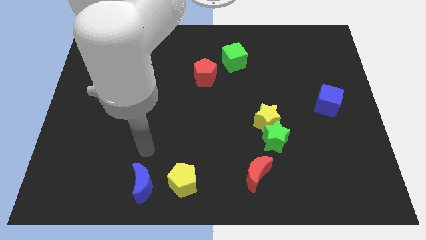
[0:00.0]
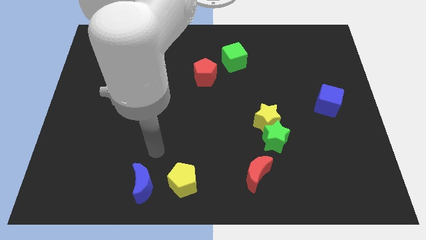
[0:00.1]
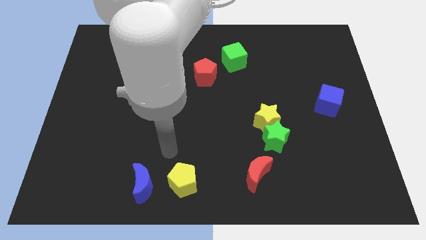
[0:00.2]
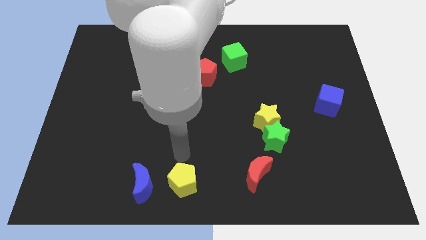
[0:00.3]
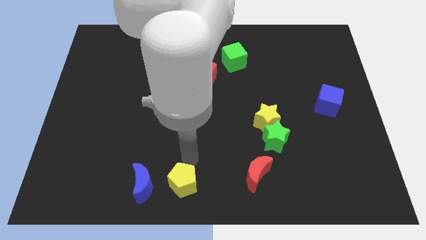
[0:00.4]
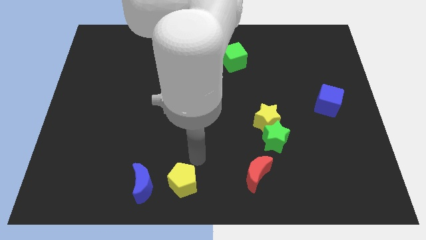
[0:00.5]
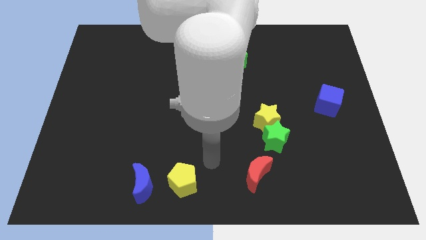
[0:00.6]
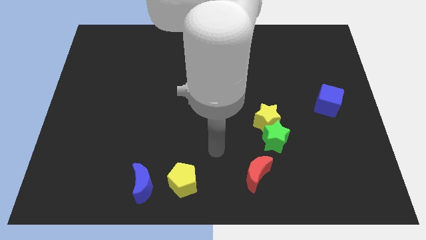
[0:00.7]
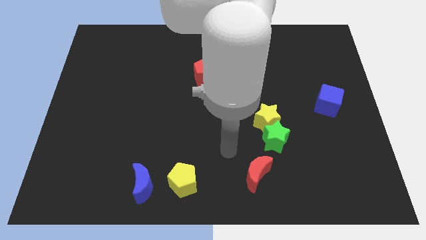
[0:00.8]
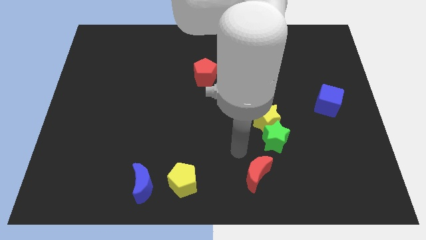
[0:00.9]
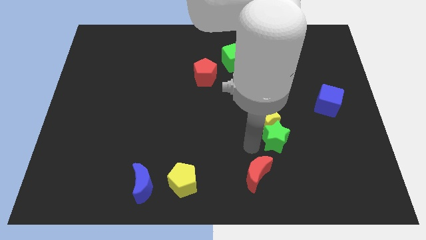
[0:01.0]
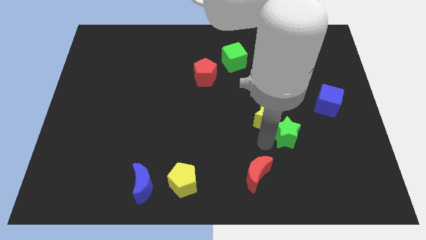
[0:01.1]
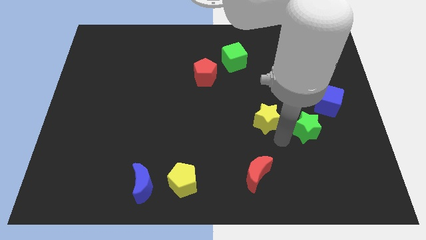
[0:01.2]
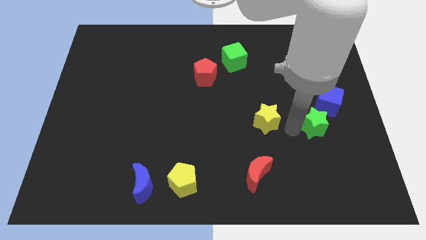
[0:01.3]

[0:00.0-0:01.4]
separate the yellow star from the green star

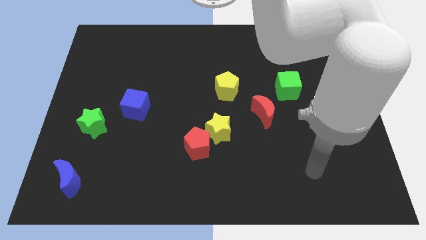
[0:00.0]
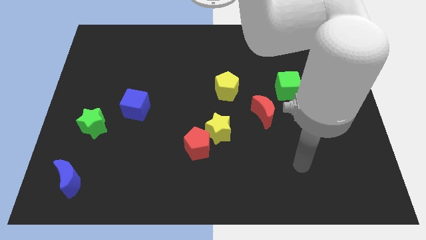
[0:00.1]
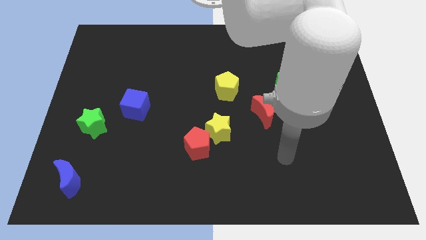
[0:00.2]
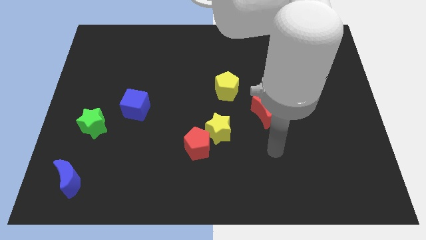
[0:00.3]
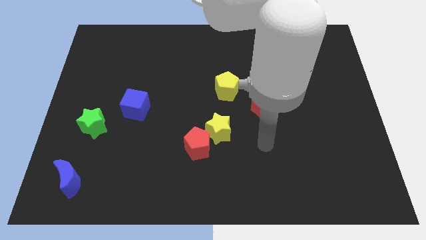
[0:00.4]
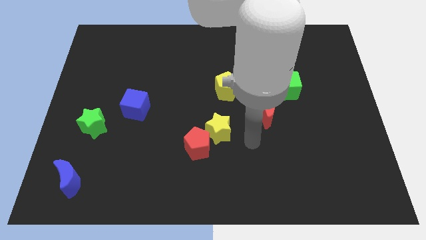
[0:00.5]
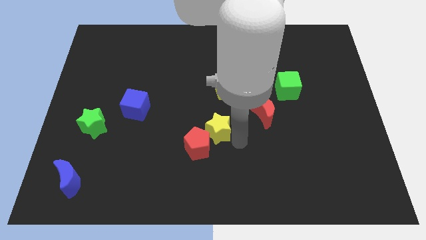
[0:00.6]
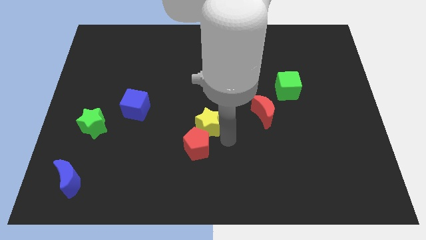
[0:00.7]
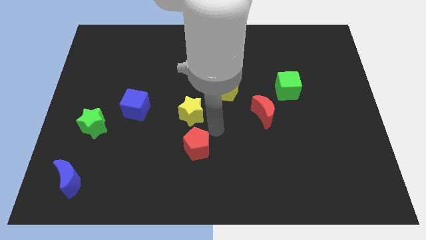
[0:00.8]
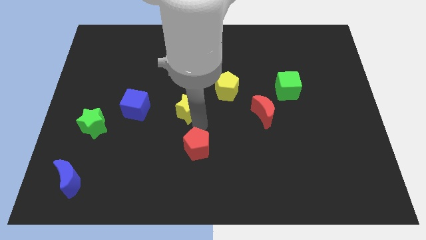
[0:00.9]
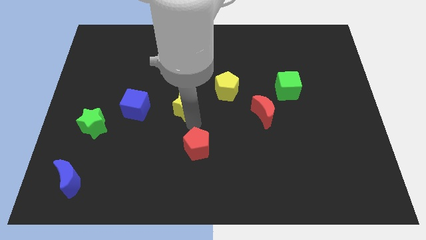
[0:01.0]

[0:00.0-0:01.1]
separate the red pentagon from the yellow star

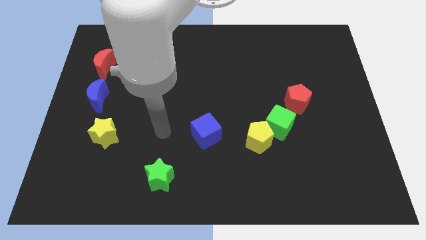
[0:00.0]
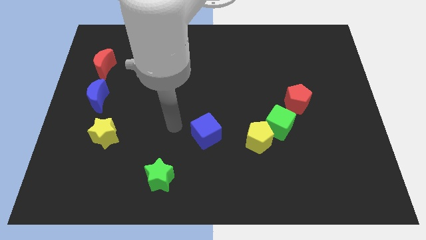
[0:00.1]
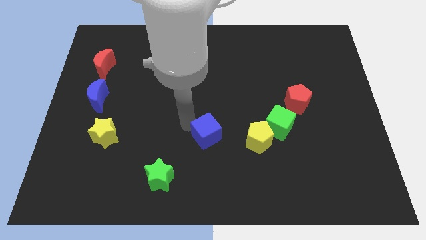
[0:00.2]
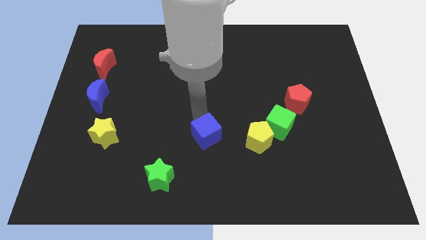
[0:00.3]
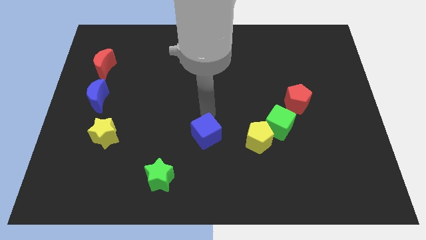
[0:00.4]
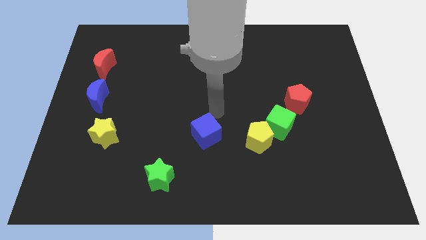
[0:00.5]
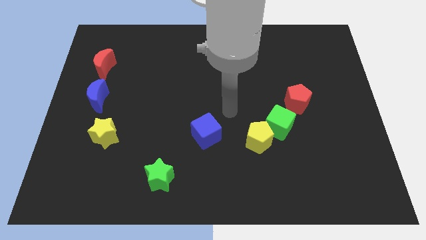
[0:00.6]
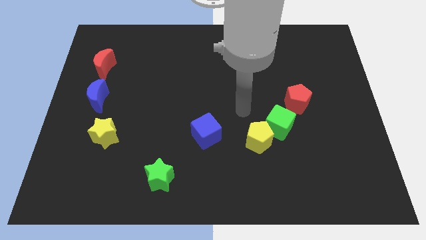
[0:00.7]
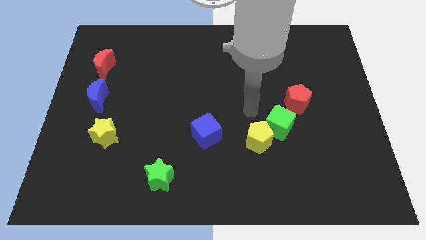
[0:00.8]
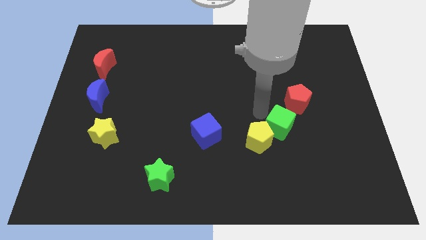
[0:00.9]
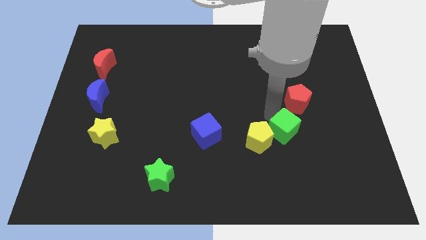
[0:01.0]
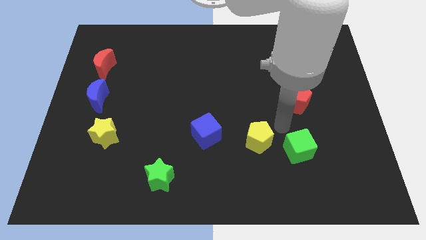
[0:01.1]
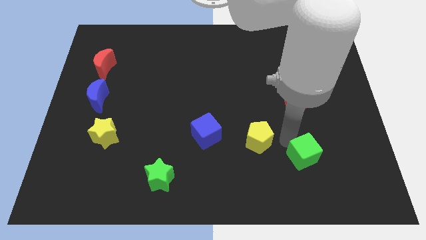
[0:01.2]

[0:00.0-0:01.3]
move the yellow pentagon away from the green cube

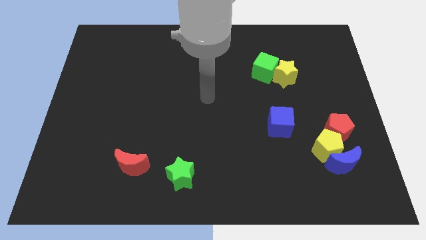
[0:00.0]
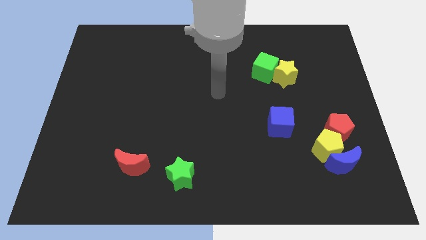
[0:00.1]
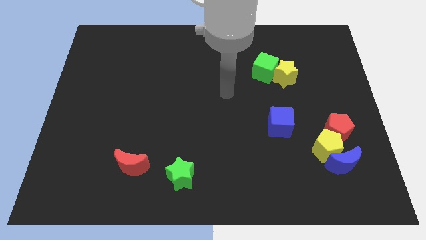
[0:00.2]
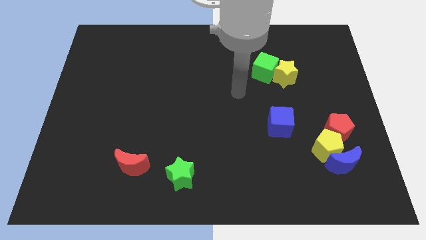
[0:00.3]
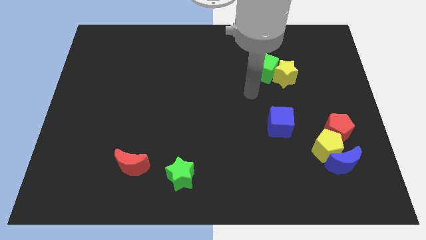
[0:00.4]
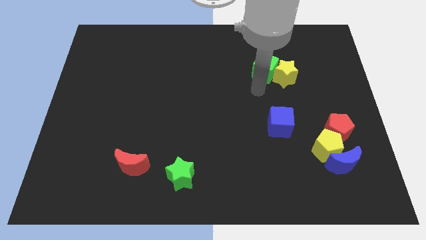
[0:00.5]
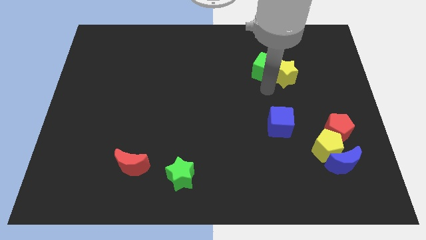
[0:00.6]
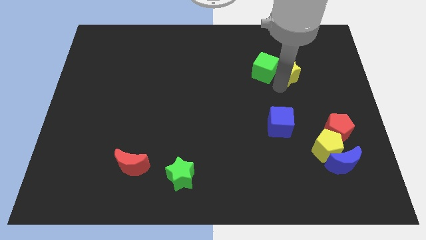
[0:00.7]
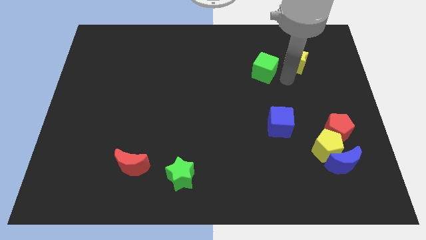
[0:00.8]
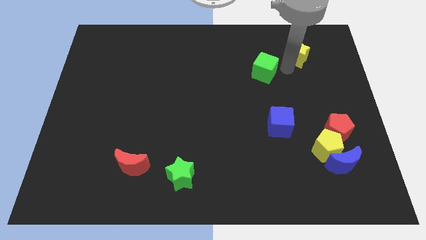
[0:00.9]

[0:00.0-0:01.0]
separate the green cube from the yellow star

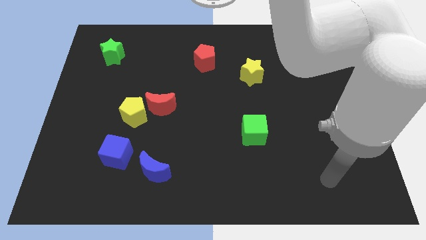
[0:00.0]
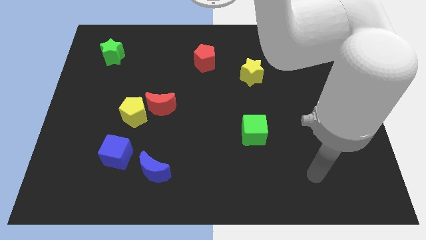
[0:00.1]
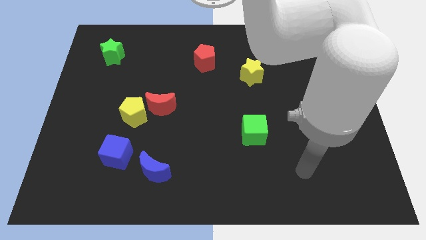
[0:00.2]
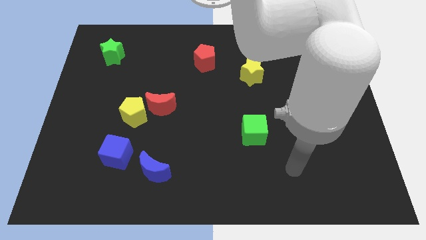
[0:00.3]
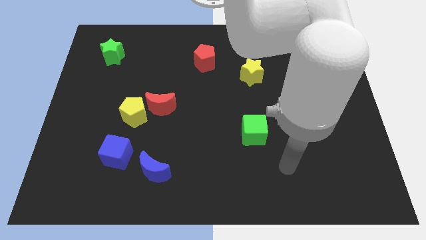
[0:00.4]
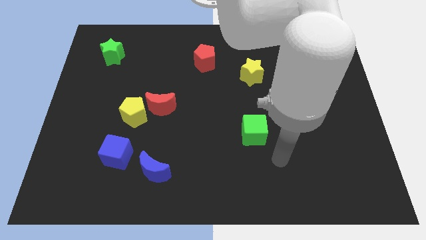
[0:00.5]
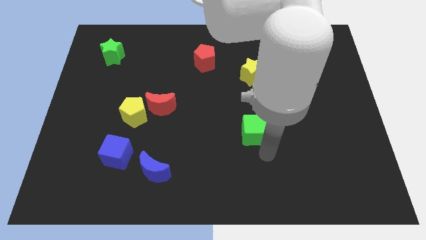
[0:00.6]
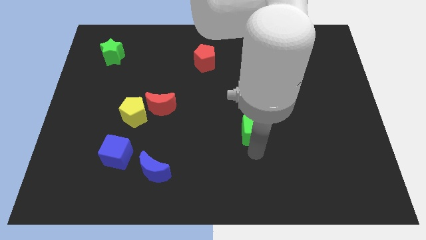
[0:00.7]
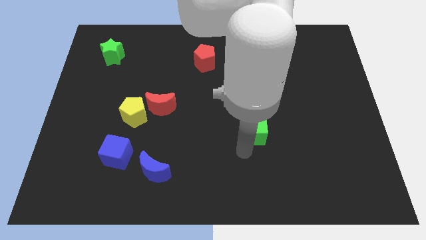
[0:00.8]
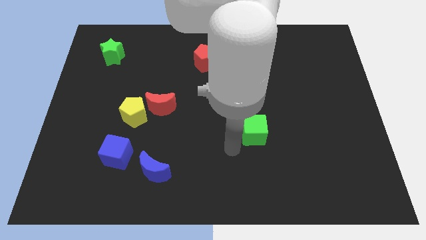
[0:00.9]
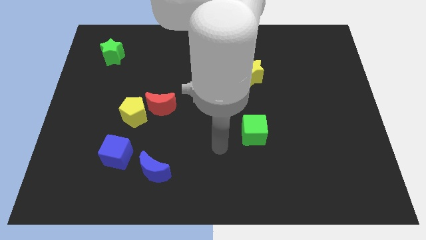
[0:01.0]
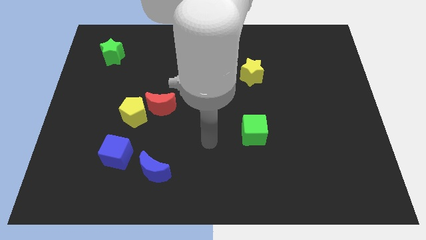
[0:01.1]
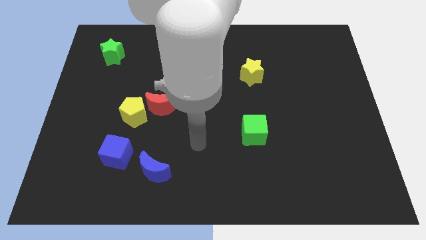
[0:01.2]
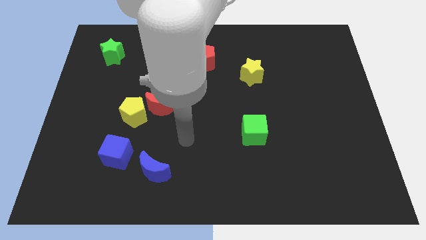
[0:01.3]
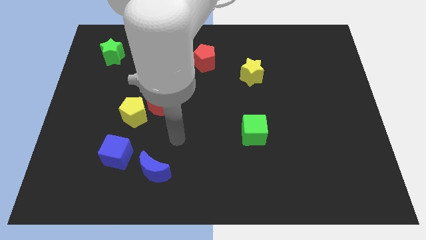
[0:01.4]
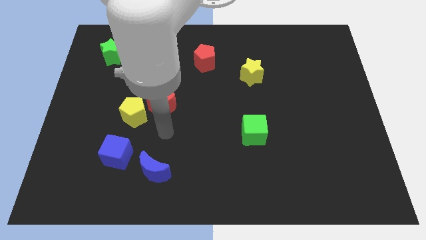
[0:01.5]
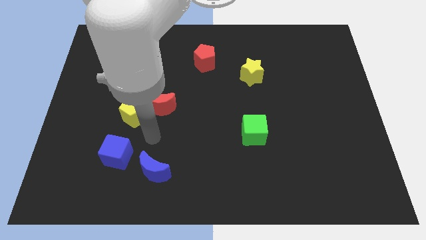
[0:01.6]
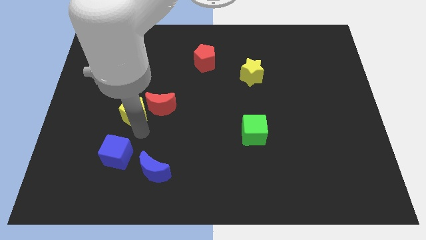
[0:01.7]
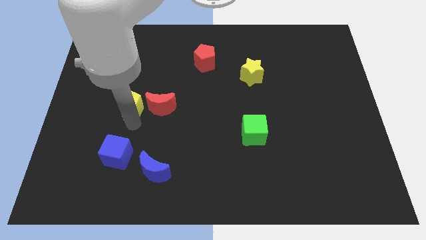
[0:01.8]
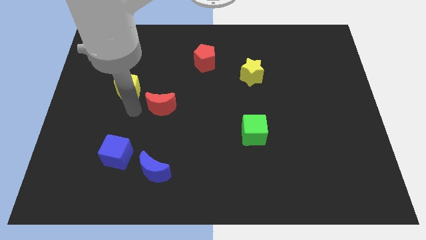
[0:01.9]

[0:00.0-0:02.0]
pull the red moon apart from the yellow pentagon

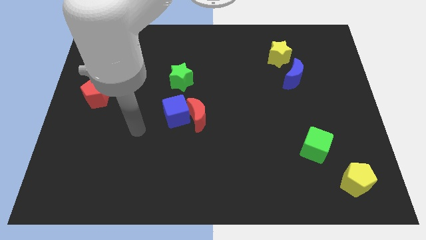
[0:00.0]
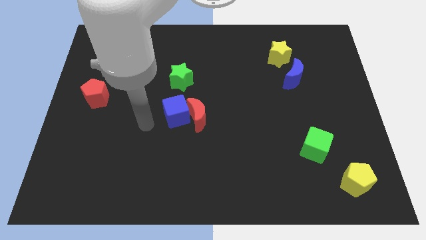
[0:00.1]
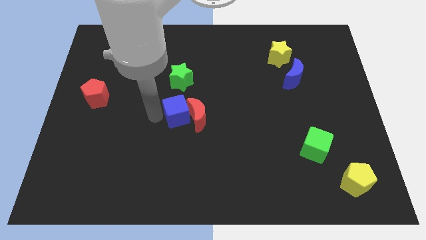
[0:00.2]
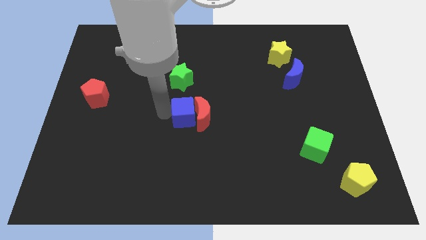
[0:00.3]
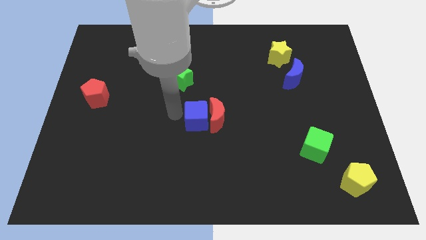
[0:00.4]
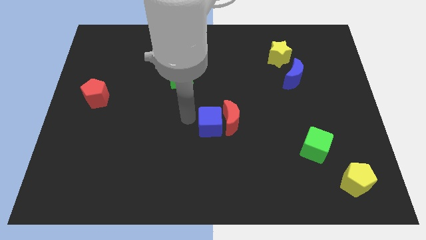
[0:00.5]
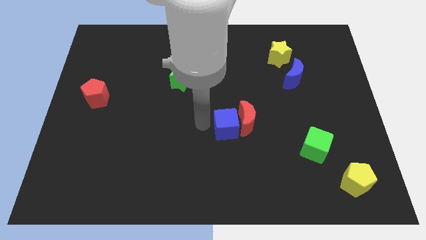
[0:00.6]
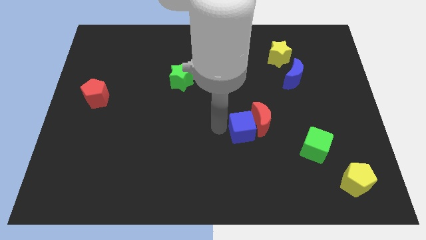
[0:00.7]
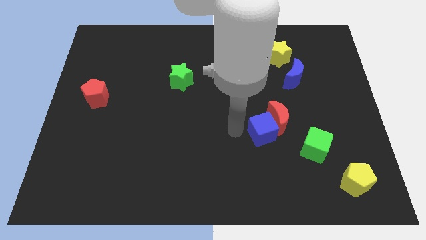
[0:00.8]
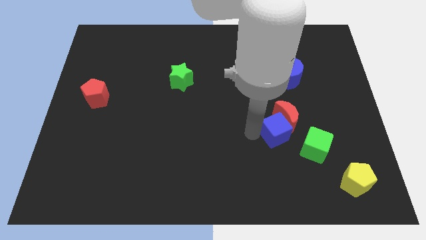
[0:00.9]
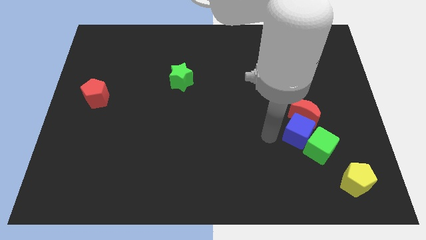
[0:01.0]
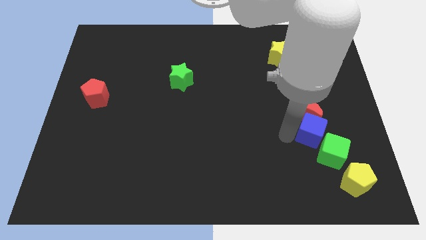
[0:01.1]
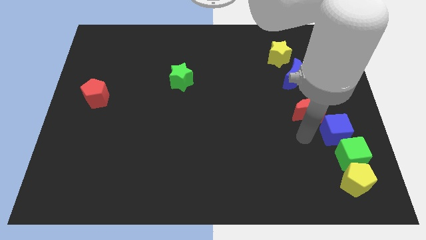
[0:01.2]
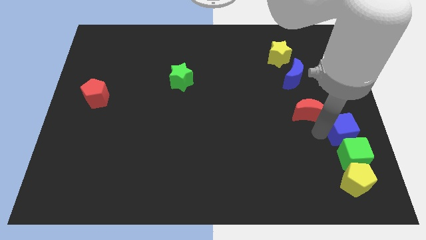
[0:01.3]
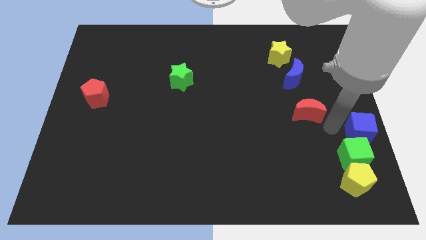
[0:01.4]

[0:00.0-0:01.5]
separate the red moon from the blue cube

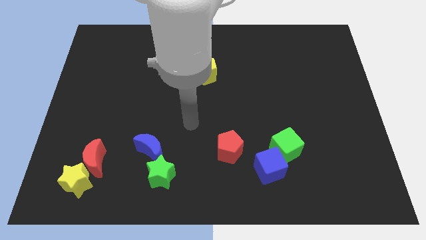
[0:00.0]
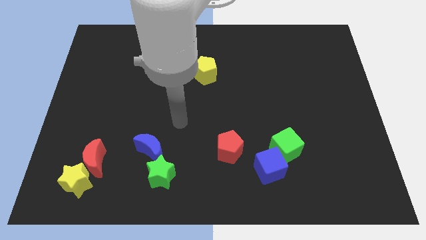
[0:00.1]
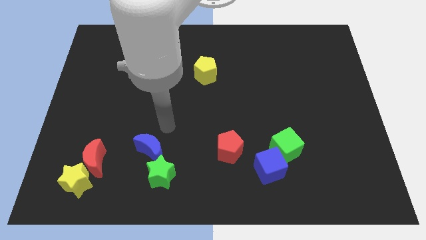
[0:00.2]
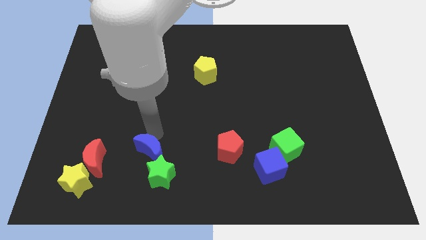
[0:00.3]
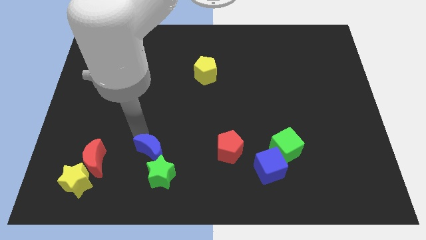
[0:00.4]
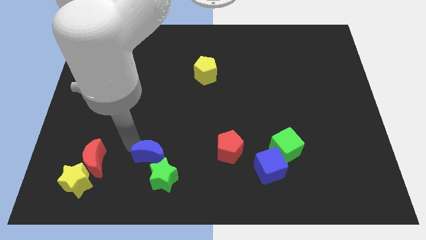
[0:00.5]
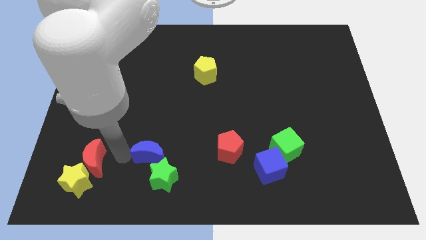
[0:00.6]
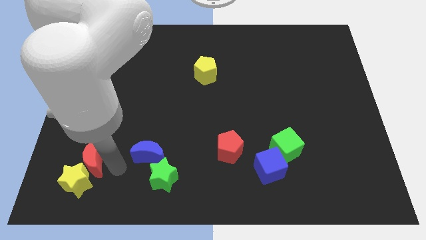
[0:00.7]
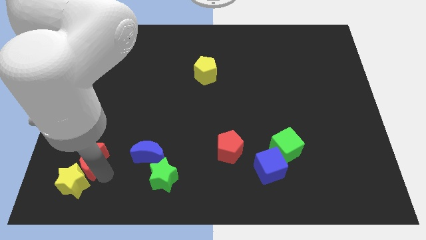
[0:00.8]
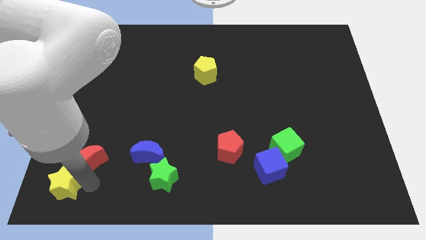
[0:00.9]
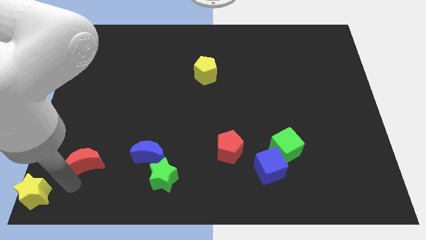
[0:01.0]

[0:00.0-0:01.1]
separate the red moon from the yellow star
